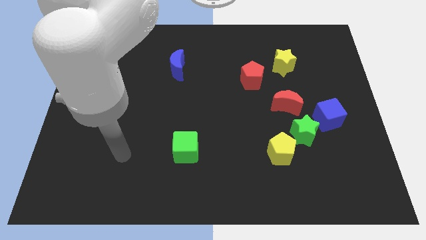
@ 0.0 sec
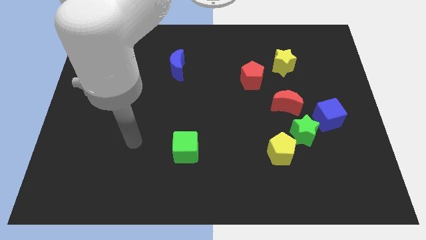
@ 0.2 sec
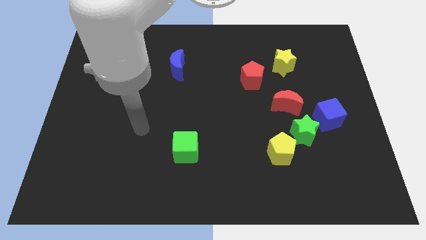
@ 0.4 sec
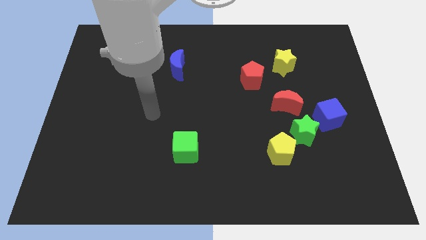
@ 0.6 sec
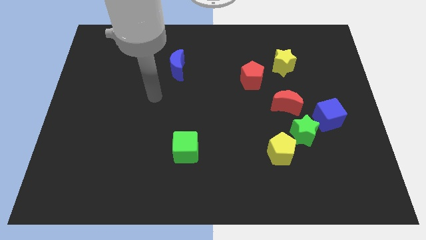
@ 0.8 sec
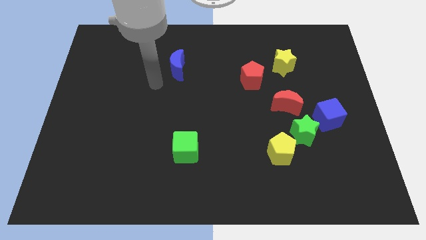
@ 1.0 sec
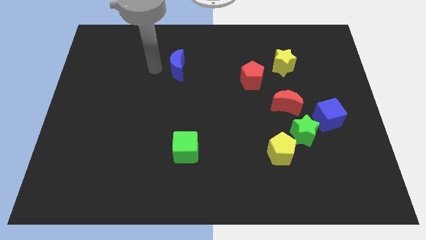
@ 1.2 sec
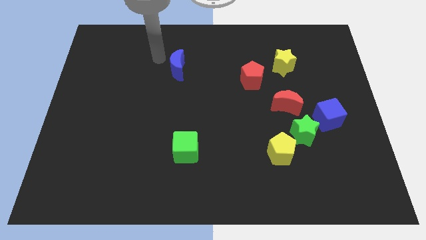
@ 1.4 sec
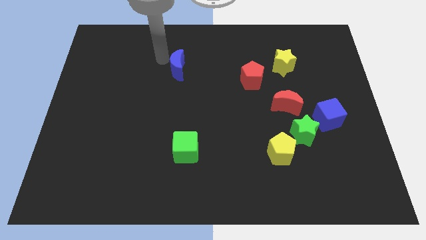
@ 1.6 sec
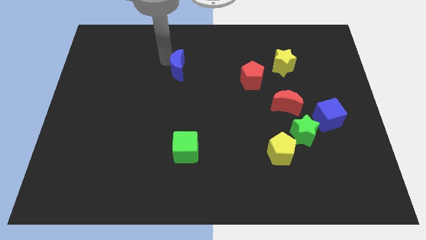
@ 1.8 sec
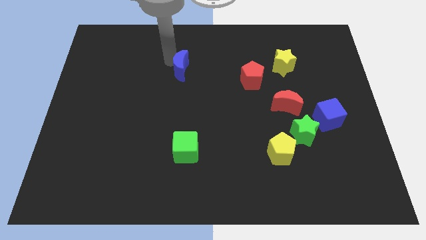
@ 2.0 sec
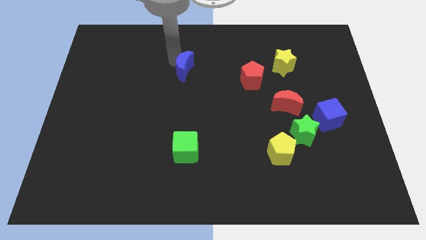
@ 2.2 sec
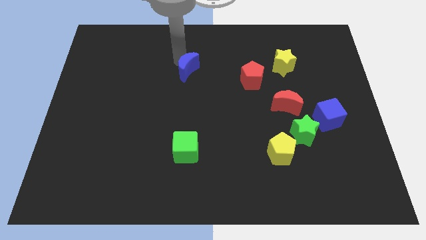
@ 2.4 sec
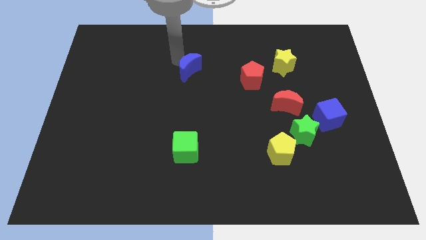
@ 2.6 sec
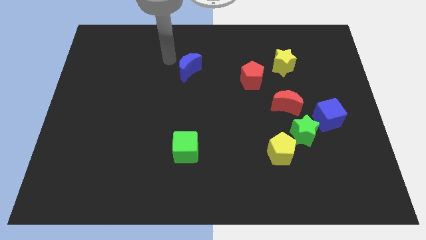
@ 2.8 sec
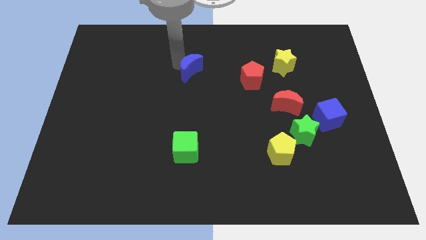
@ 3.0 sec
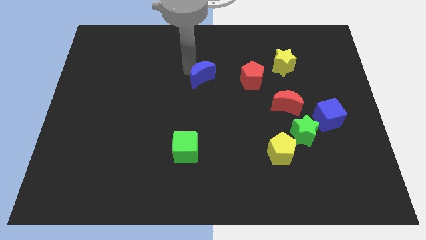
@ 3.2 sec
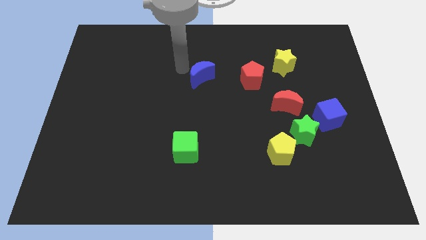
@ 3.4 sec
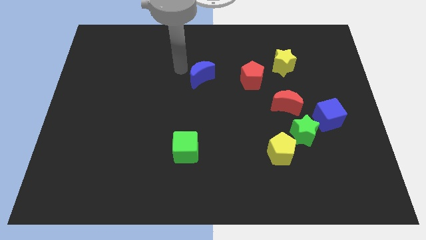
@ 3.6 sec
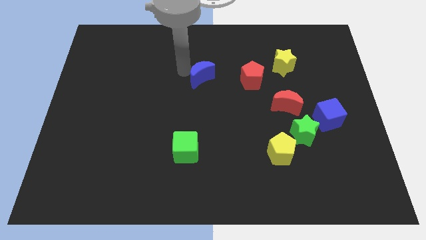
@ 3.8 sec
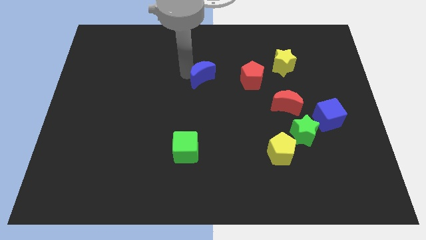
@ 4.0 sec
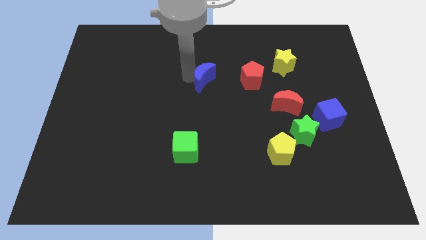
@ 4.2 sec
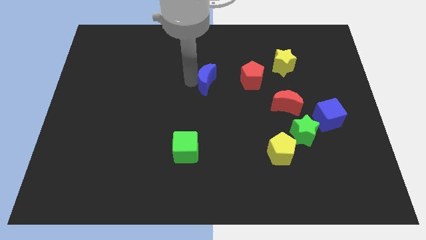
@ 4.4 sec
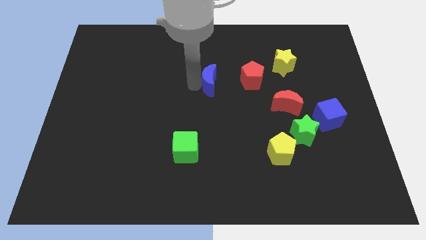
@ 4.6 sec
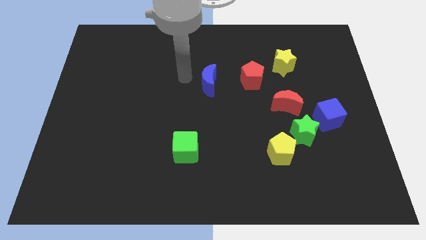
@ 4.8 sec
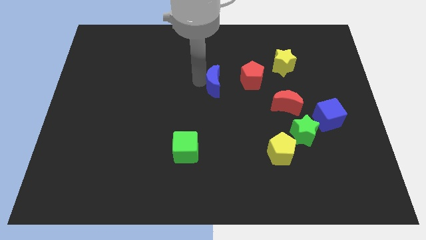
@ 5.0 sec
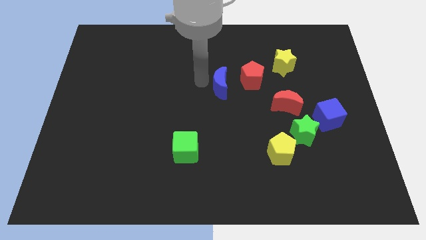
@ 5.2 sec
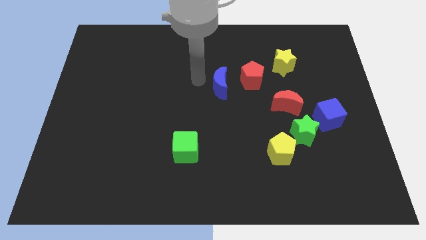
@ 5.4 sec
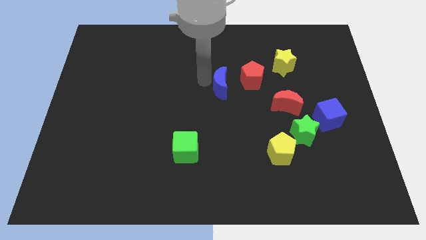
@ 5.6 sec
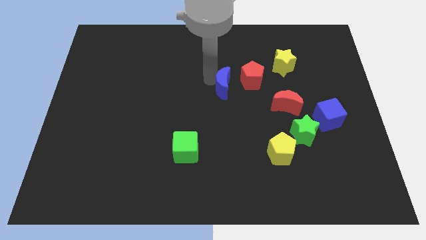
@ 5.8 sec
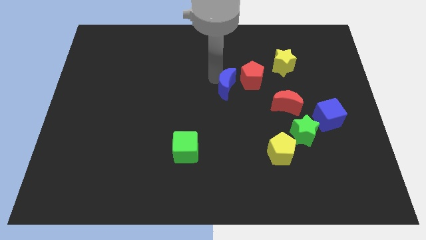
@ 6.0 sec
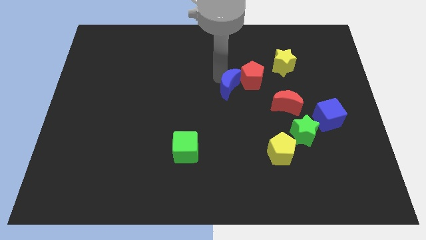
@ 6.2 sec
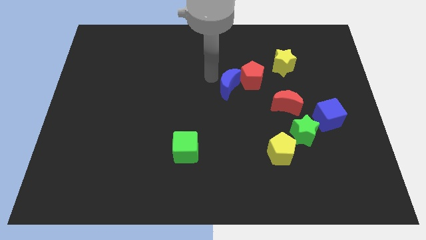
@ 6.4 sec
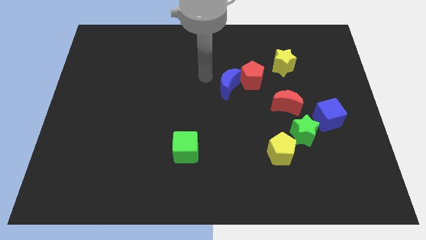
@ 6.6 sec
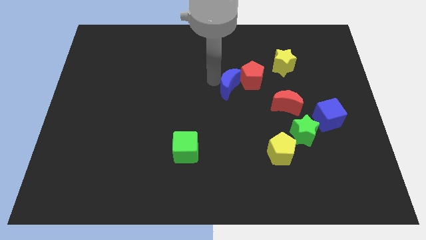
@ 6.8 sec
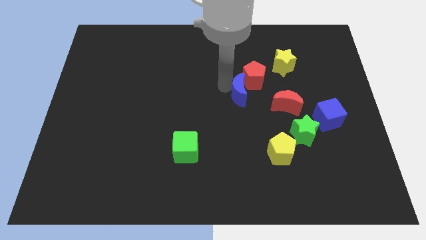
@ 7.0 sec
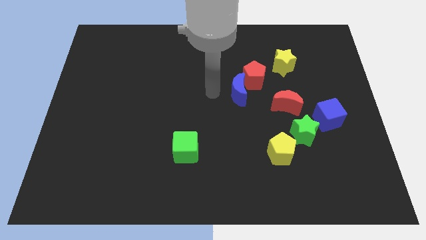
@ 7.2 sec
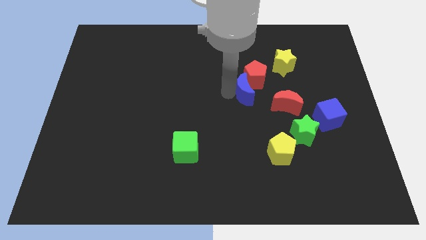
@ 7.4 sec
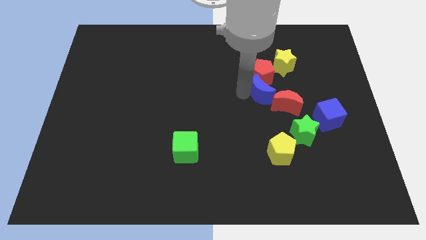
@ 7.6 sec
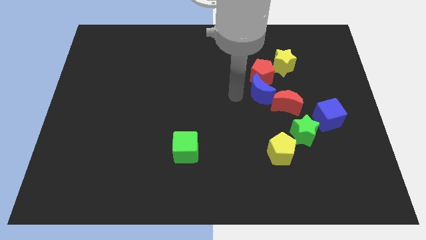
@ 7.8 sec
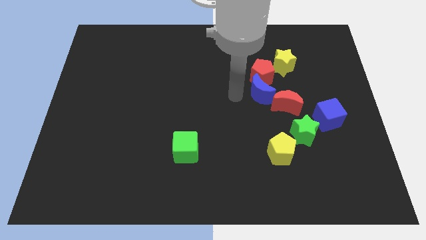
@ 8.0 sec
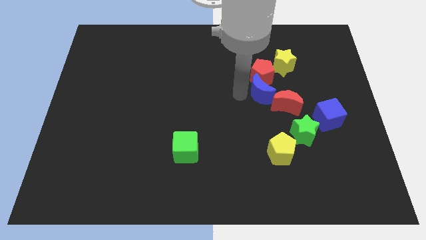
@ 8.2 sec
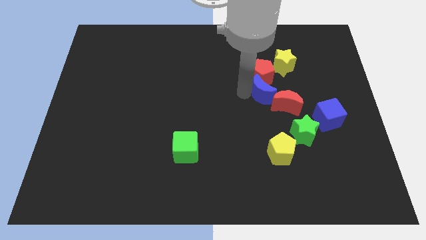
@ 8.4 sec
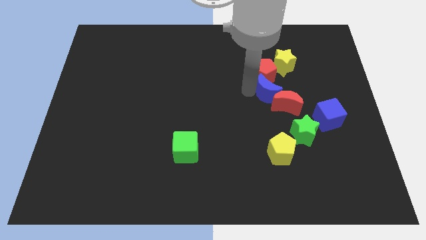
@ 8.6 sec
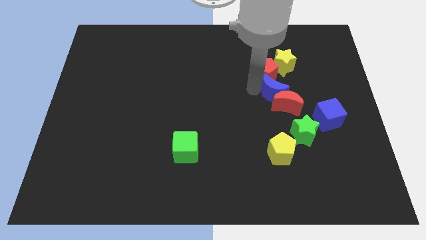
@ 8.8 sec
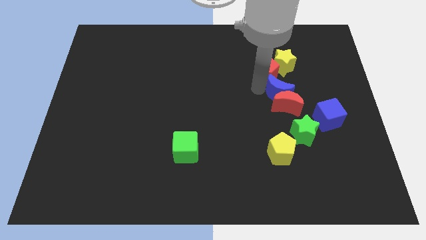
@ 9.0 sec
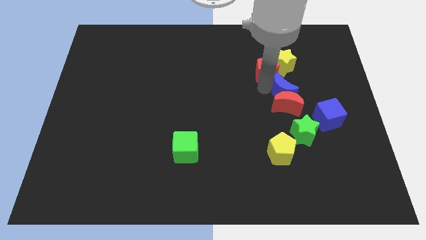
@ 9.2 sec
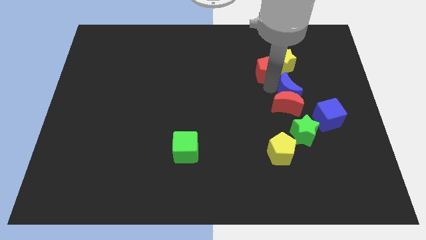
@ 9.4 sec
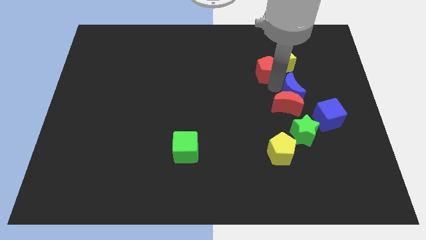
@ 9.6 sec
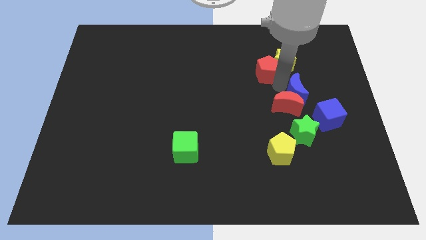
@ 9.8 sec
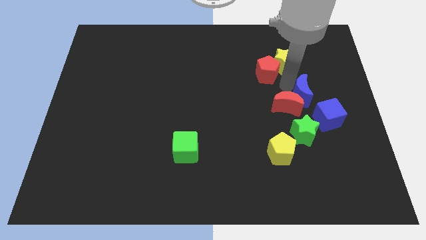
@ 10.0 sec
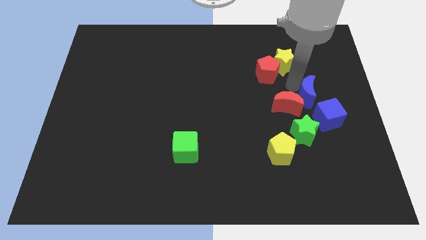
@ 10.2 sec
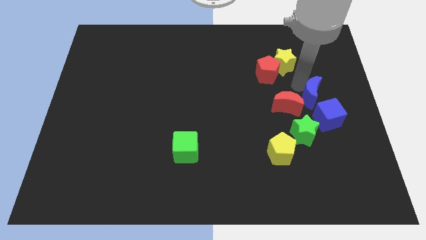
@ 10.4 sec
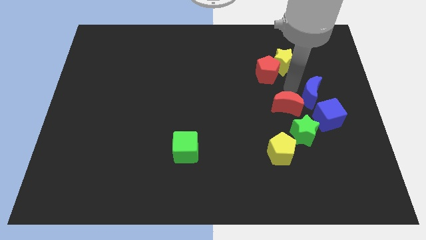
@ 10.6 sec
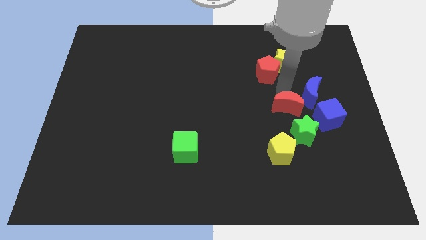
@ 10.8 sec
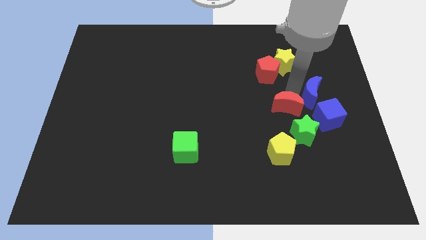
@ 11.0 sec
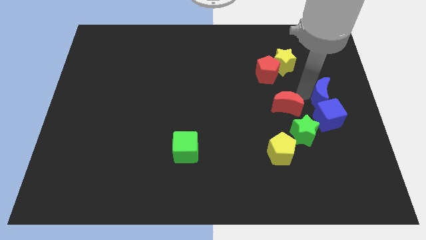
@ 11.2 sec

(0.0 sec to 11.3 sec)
slide the blue moon to the right side

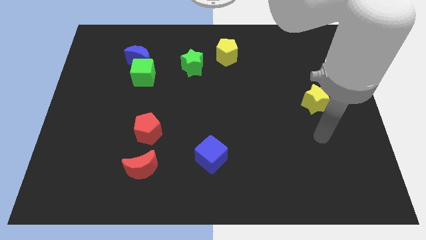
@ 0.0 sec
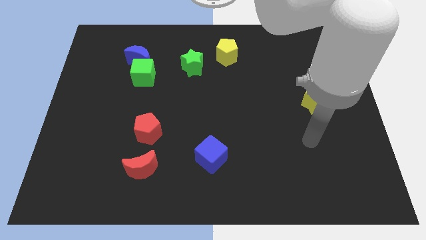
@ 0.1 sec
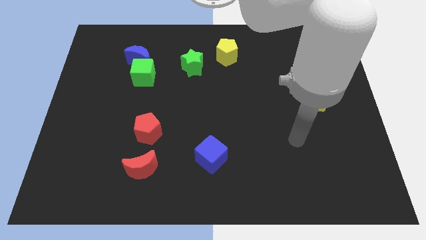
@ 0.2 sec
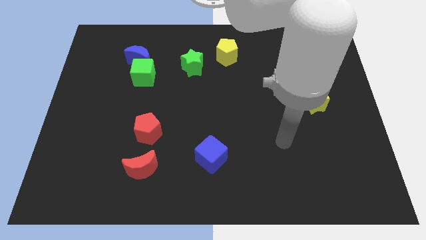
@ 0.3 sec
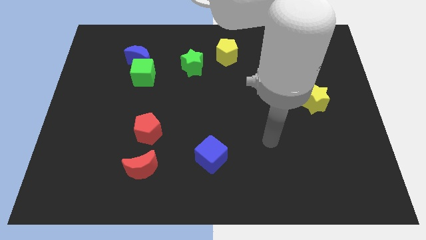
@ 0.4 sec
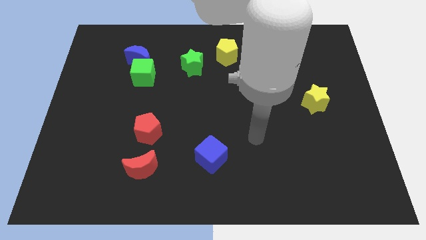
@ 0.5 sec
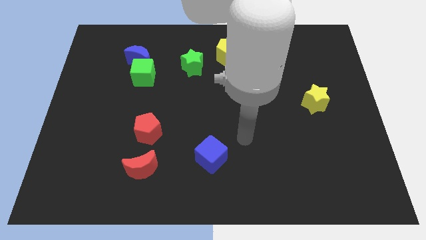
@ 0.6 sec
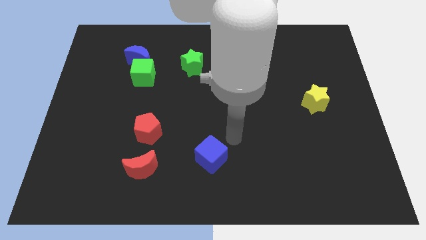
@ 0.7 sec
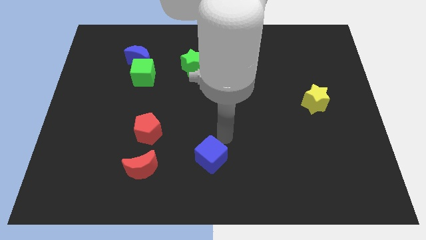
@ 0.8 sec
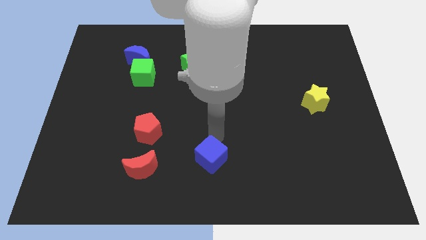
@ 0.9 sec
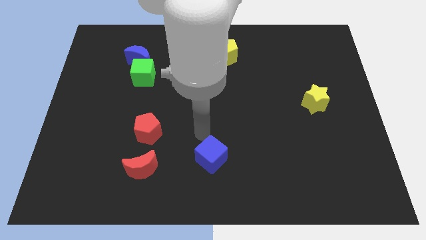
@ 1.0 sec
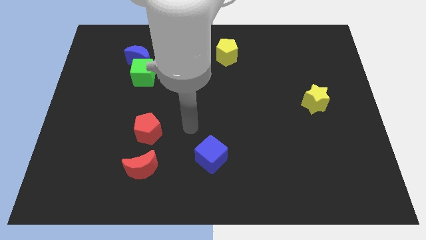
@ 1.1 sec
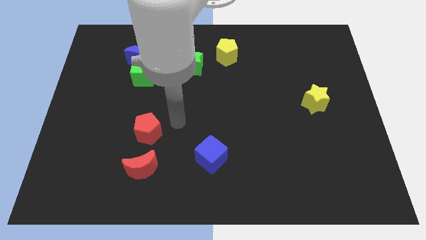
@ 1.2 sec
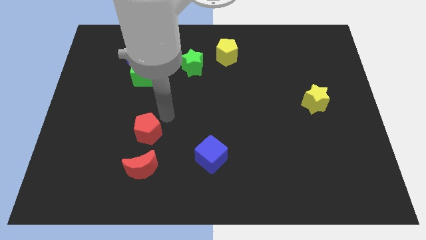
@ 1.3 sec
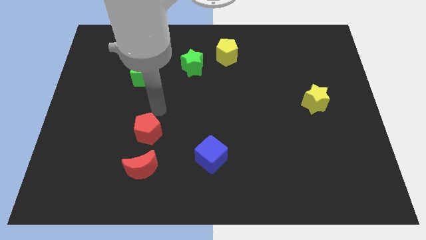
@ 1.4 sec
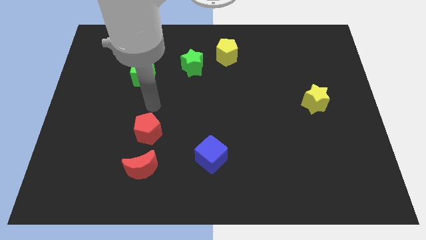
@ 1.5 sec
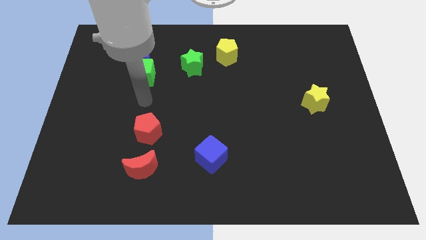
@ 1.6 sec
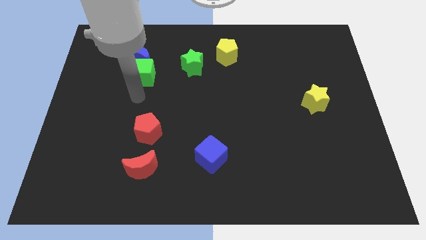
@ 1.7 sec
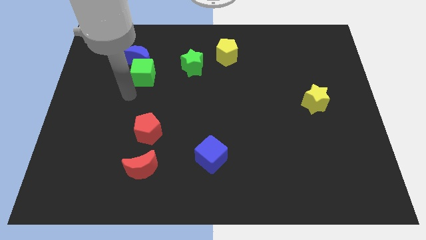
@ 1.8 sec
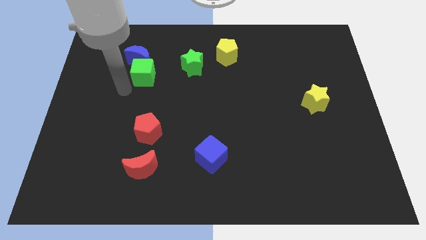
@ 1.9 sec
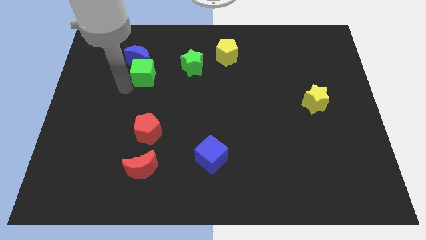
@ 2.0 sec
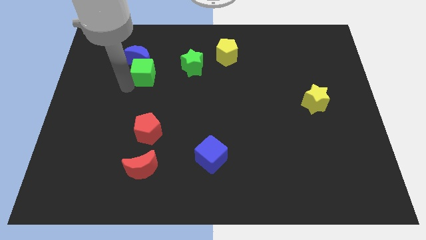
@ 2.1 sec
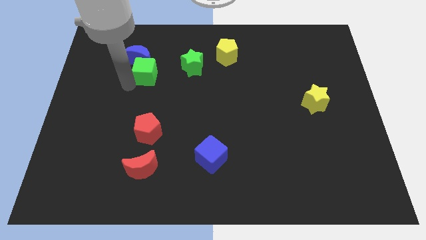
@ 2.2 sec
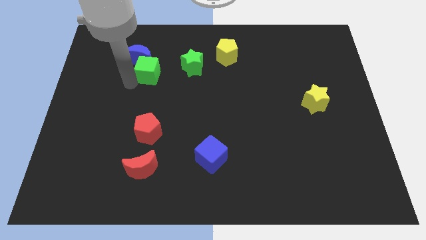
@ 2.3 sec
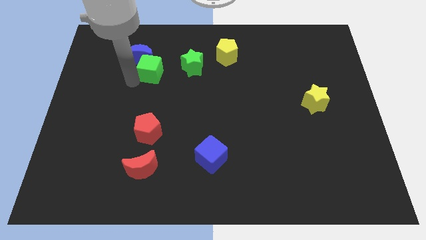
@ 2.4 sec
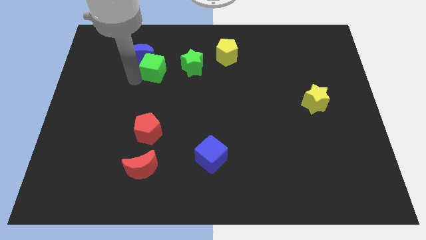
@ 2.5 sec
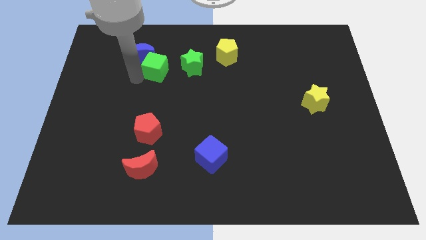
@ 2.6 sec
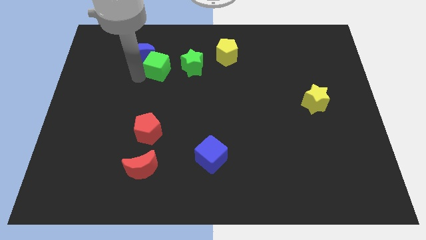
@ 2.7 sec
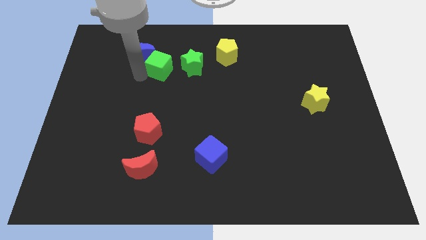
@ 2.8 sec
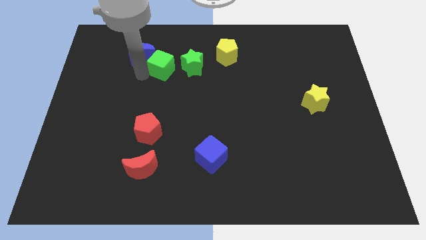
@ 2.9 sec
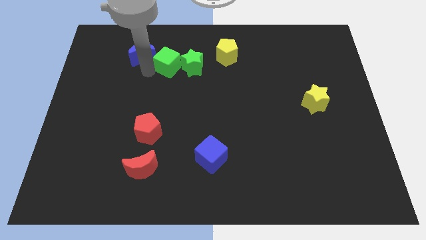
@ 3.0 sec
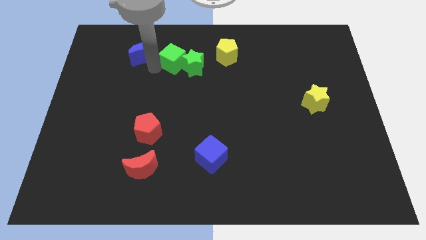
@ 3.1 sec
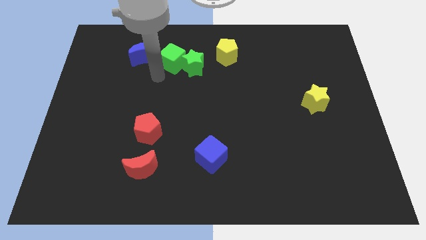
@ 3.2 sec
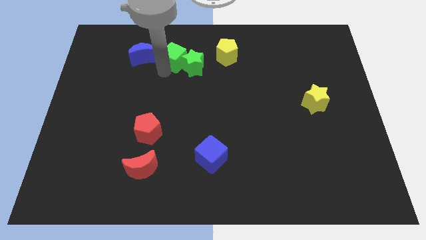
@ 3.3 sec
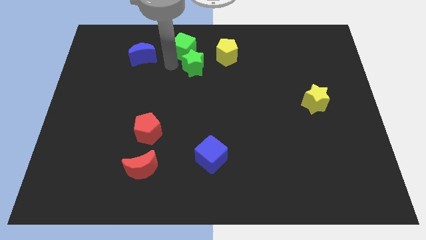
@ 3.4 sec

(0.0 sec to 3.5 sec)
slide the green cube to the top side
